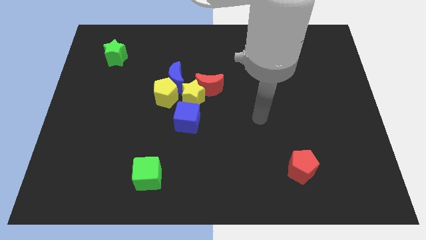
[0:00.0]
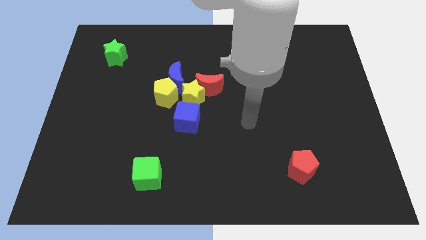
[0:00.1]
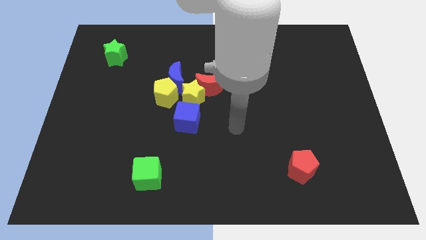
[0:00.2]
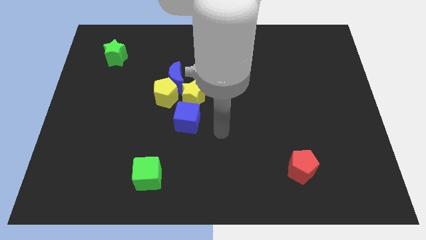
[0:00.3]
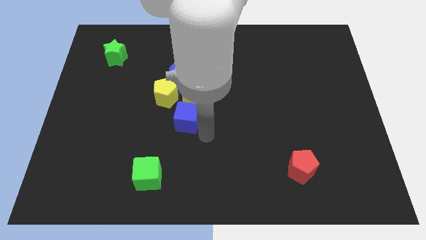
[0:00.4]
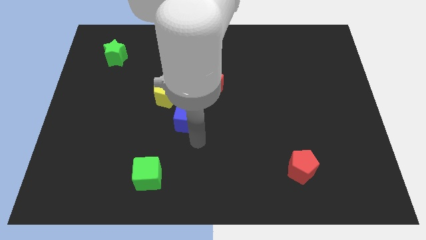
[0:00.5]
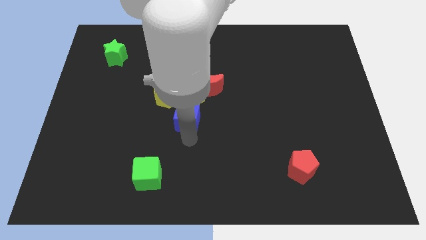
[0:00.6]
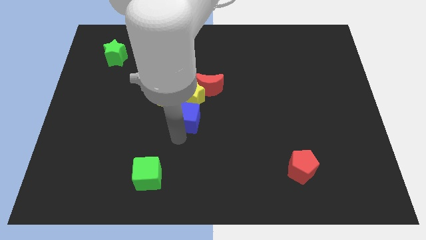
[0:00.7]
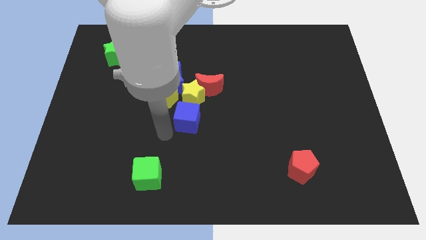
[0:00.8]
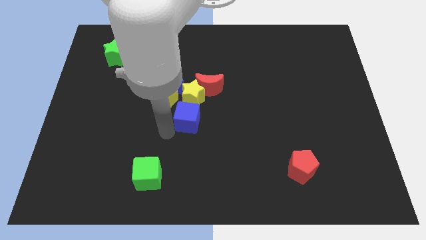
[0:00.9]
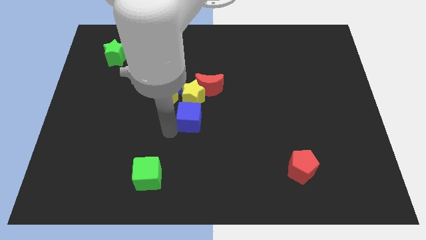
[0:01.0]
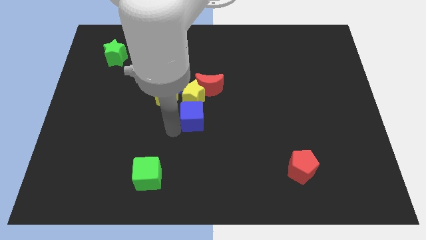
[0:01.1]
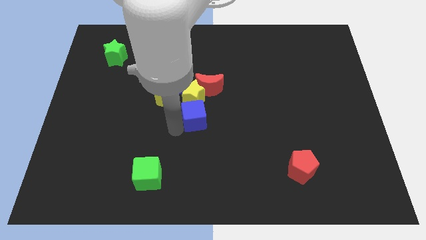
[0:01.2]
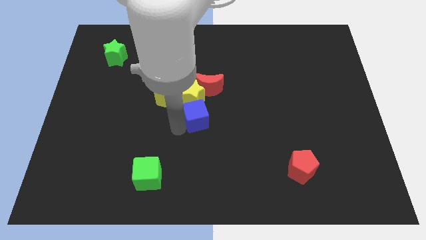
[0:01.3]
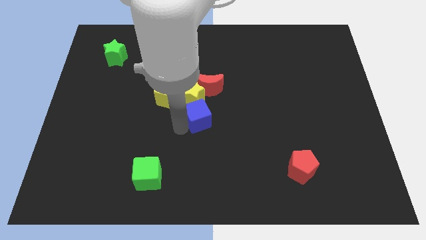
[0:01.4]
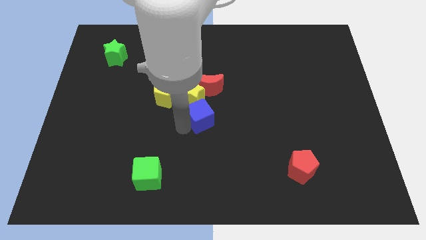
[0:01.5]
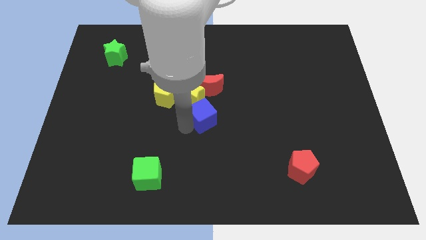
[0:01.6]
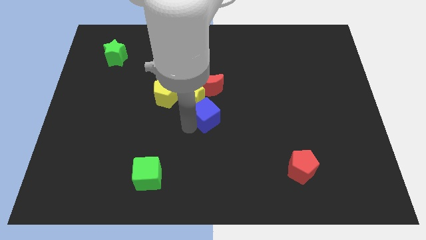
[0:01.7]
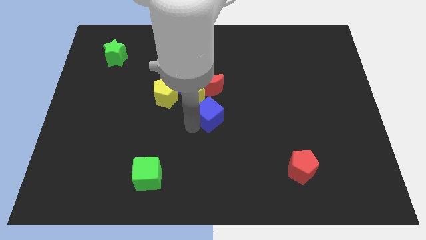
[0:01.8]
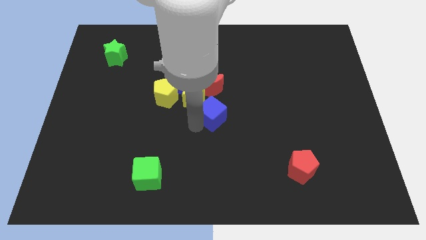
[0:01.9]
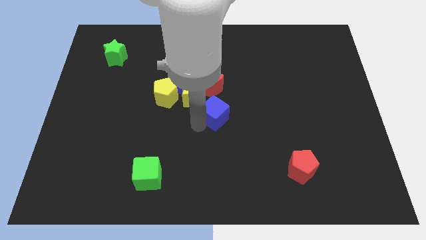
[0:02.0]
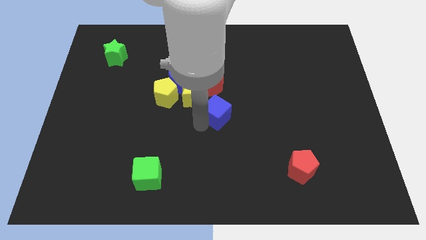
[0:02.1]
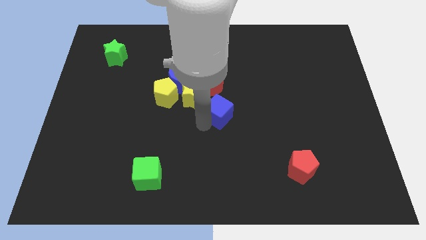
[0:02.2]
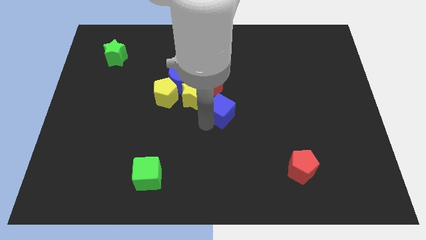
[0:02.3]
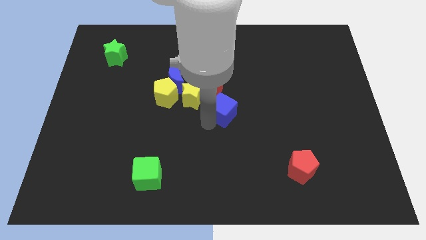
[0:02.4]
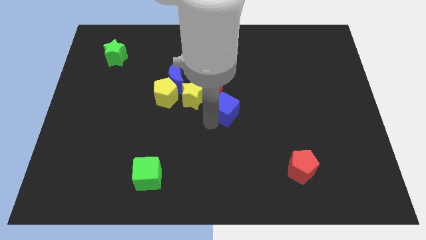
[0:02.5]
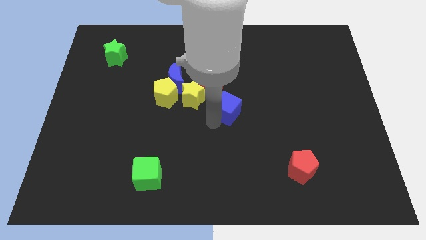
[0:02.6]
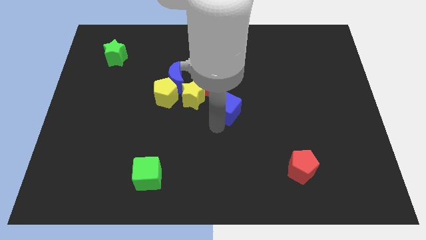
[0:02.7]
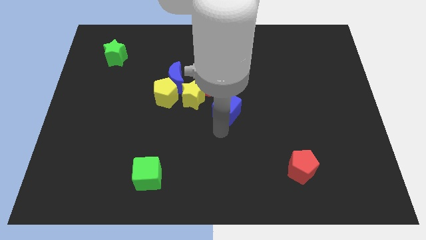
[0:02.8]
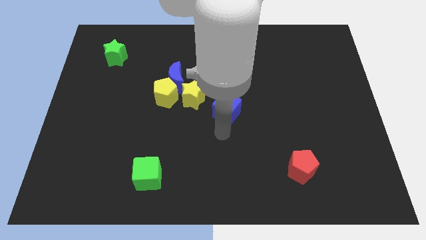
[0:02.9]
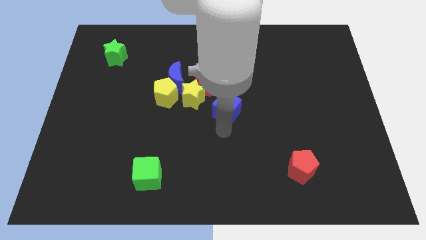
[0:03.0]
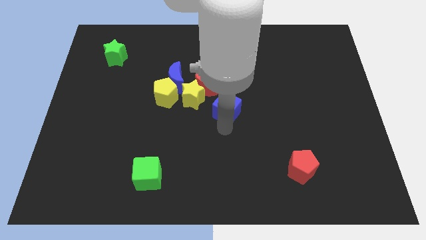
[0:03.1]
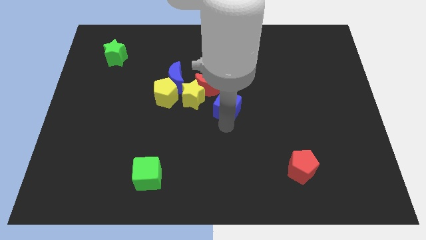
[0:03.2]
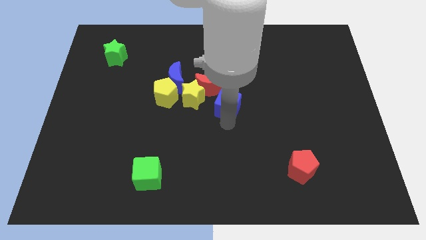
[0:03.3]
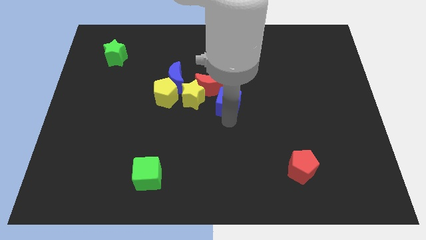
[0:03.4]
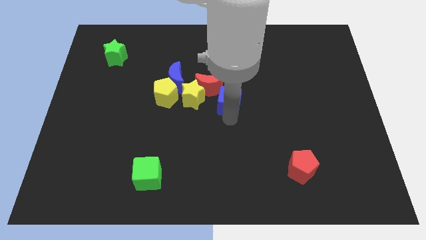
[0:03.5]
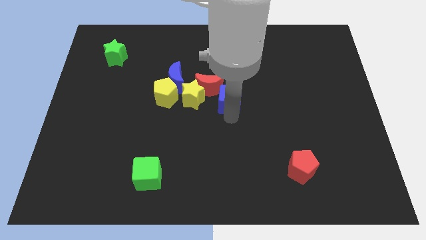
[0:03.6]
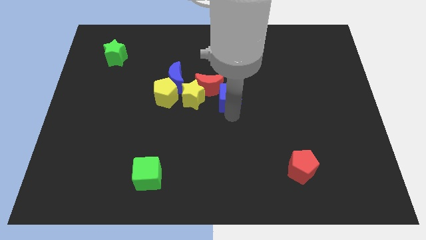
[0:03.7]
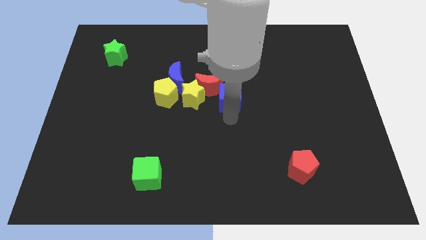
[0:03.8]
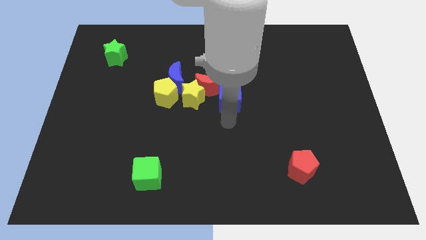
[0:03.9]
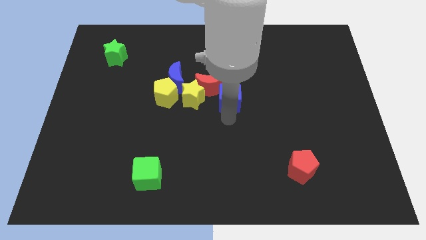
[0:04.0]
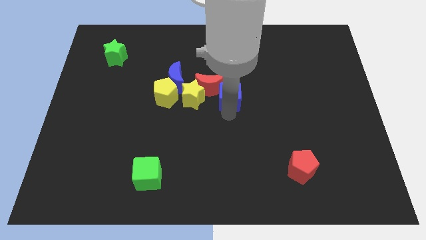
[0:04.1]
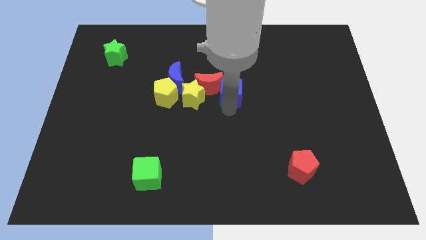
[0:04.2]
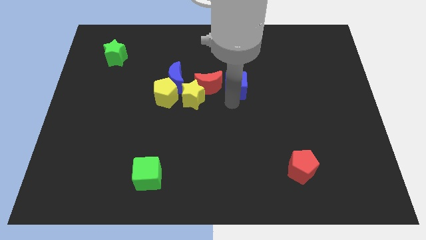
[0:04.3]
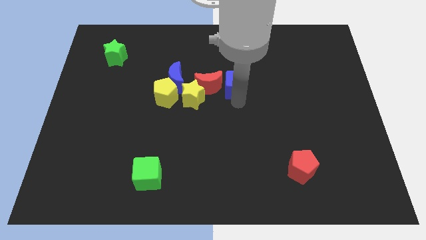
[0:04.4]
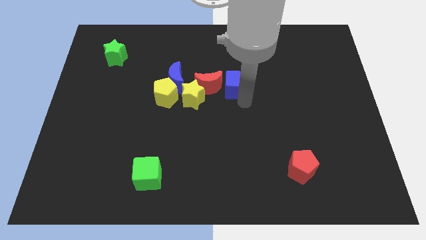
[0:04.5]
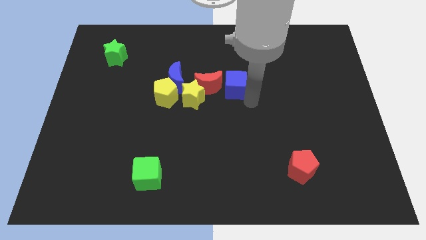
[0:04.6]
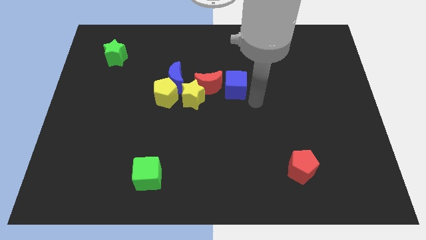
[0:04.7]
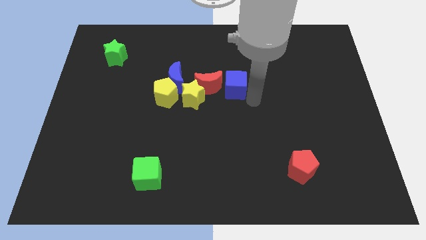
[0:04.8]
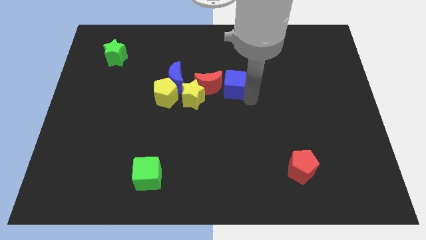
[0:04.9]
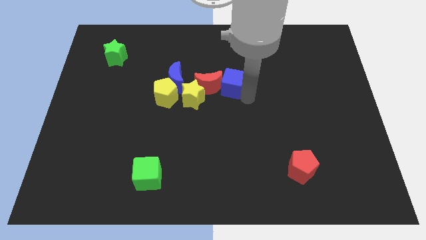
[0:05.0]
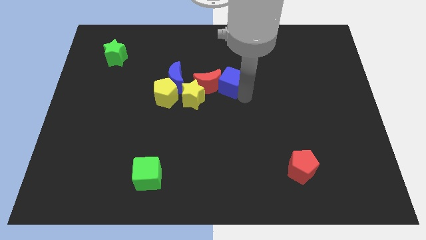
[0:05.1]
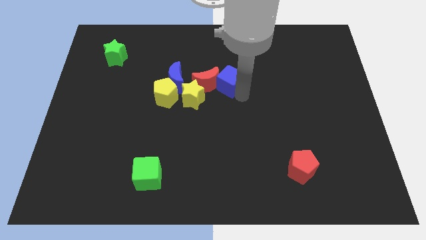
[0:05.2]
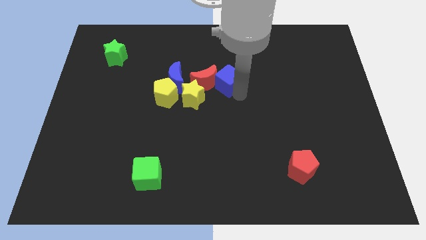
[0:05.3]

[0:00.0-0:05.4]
push the blue cube a little up

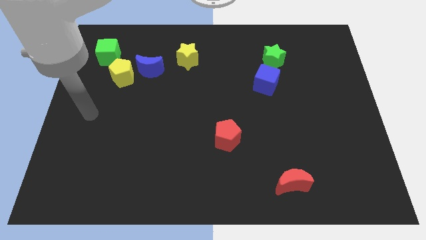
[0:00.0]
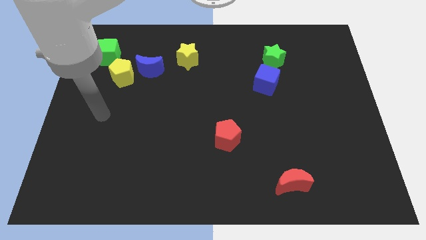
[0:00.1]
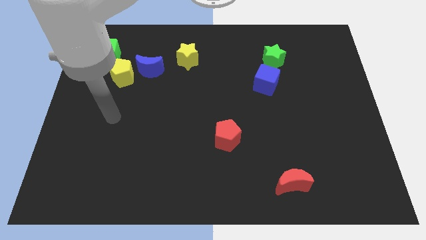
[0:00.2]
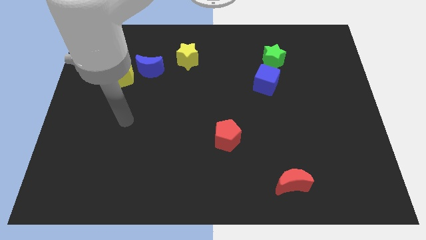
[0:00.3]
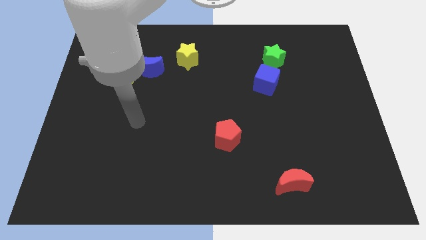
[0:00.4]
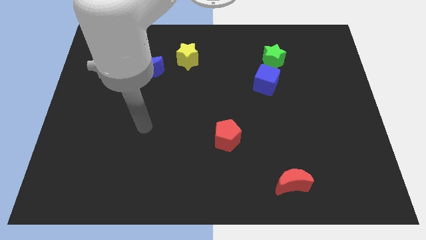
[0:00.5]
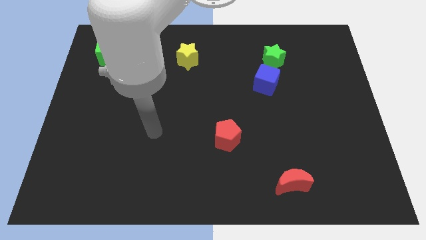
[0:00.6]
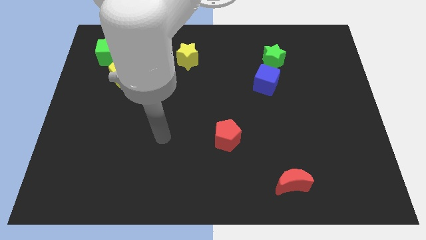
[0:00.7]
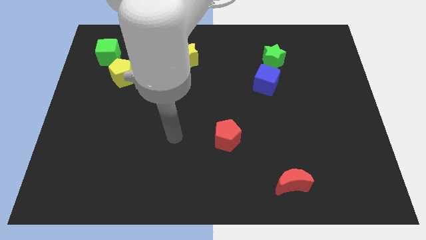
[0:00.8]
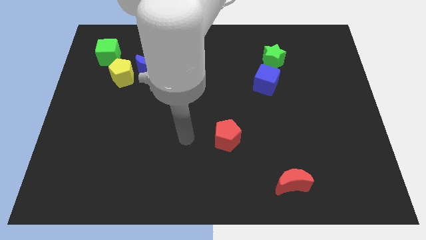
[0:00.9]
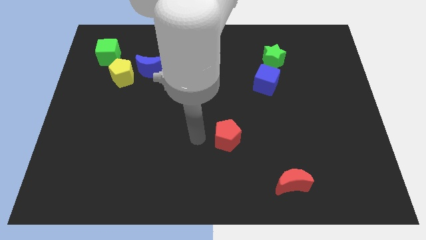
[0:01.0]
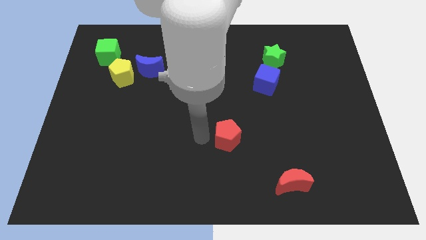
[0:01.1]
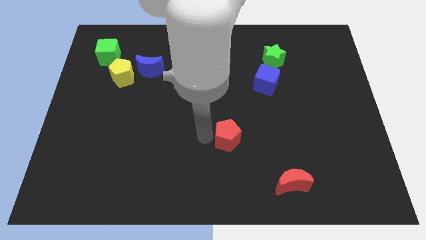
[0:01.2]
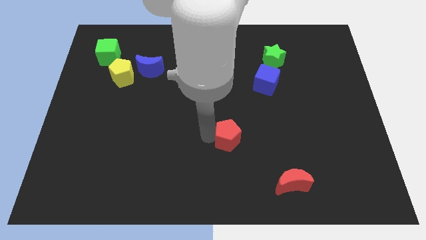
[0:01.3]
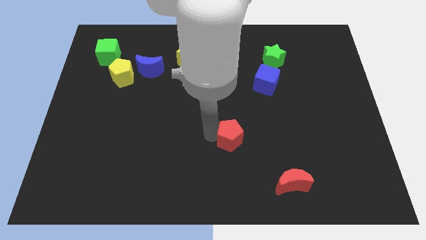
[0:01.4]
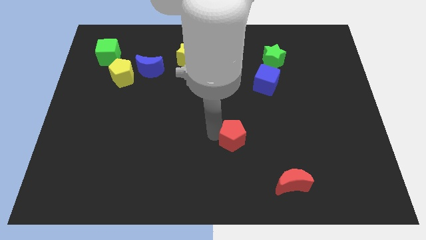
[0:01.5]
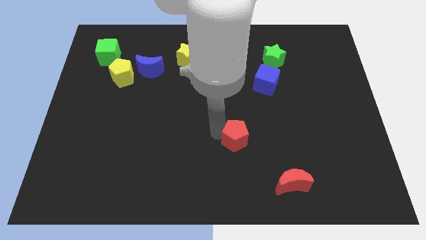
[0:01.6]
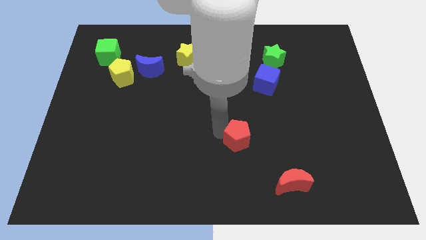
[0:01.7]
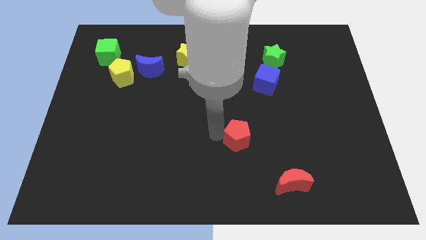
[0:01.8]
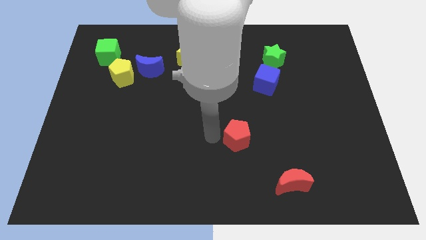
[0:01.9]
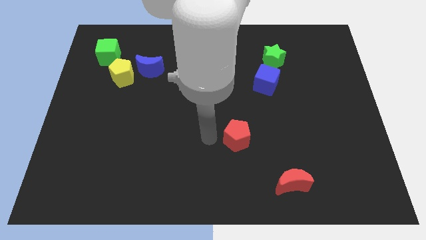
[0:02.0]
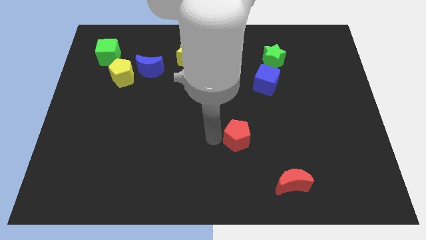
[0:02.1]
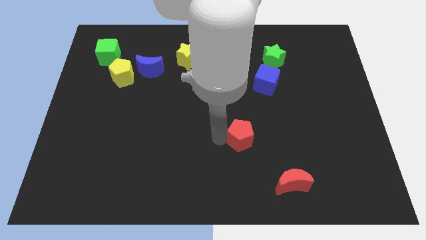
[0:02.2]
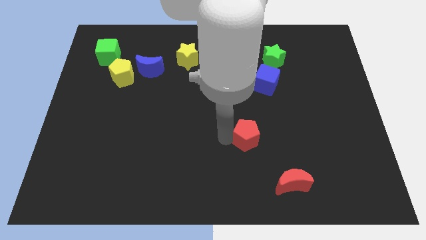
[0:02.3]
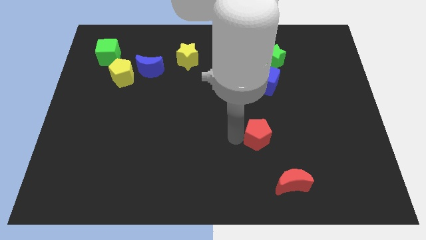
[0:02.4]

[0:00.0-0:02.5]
slide the red pentagon a bit right
